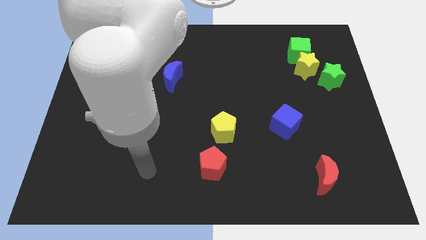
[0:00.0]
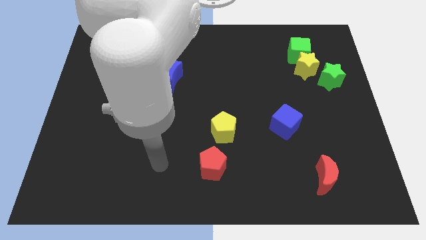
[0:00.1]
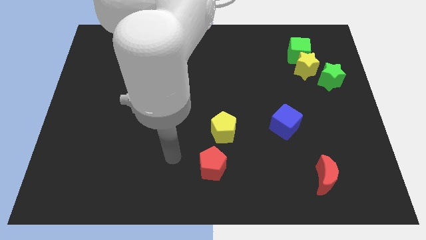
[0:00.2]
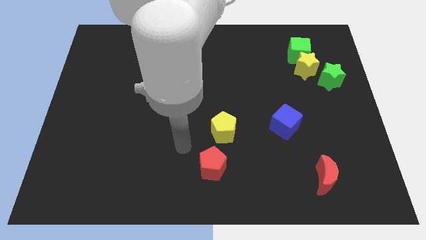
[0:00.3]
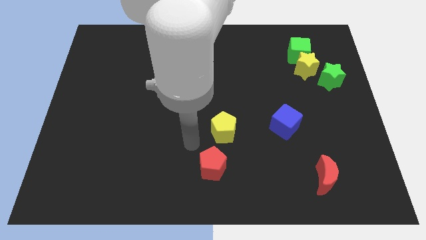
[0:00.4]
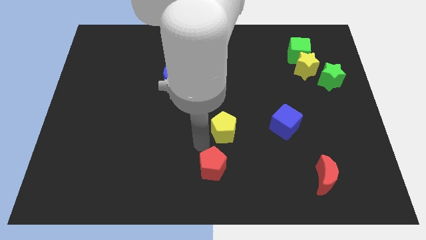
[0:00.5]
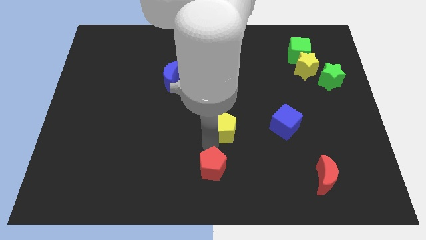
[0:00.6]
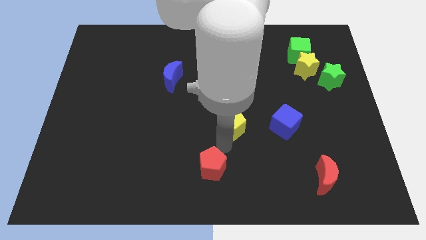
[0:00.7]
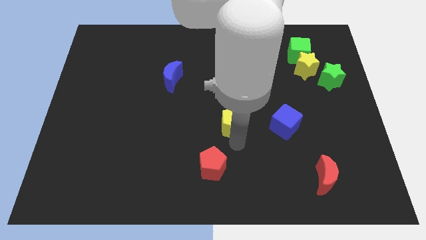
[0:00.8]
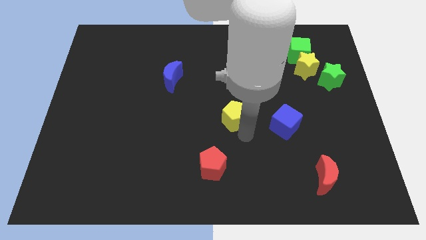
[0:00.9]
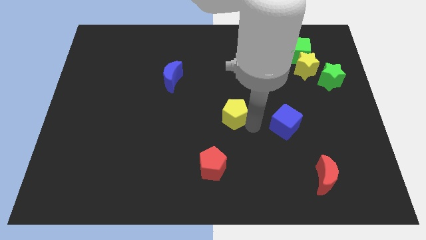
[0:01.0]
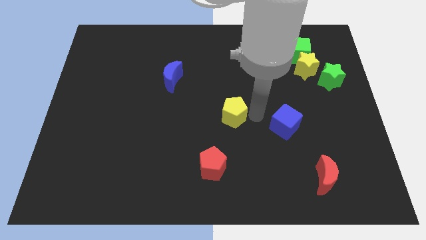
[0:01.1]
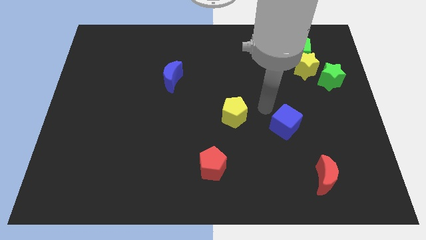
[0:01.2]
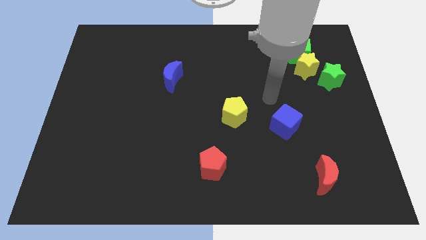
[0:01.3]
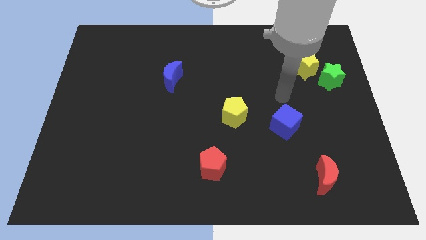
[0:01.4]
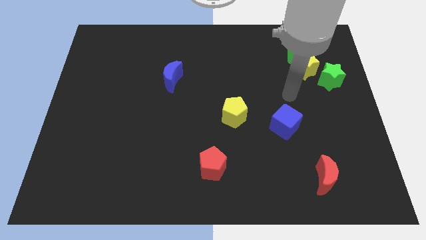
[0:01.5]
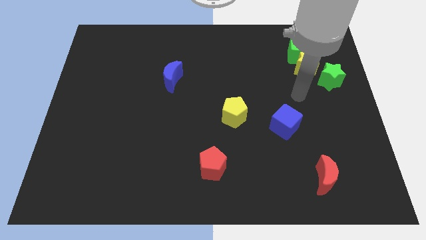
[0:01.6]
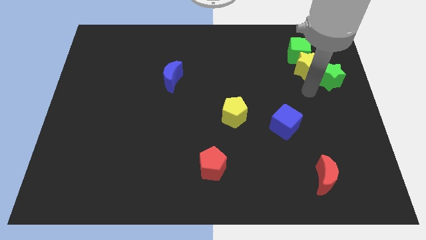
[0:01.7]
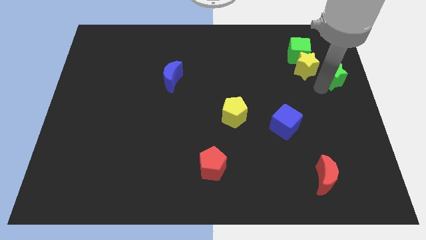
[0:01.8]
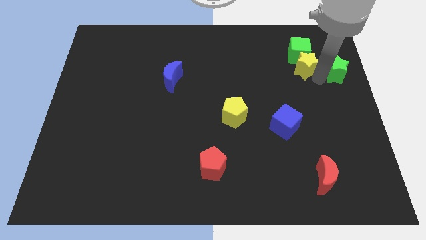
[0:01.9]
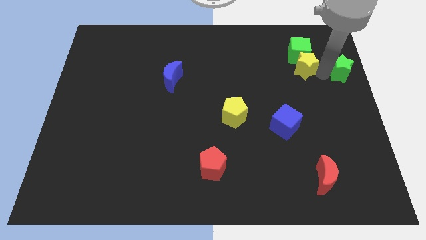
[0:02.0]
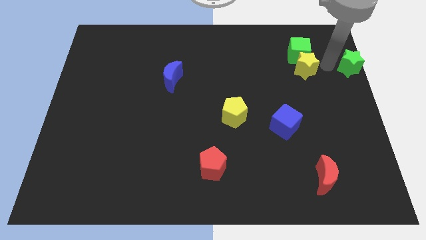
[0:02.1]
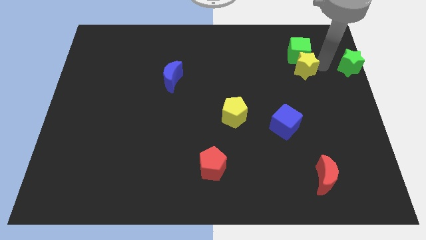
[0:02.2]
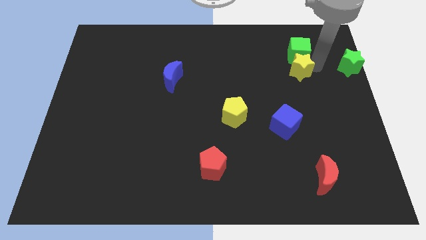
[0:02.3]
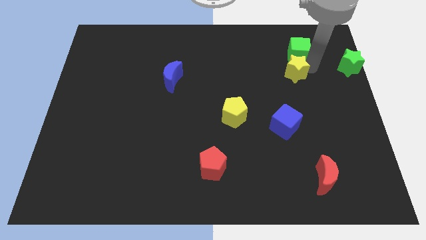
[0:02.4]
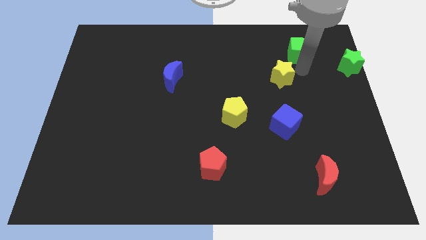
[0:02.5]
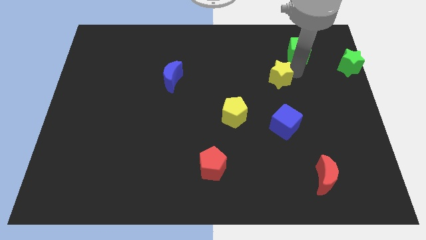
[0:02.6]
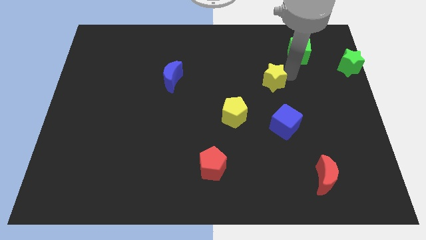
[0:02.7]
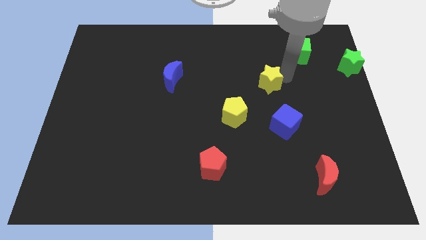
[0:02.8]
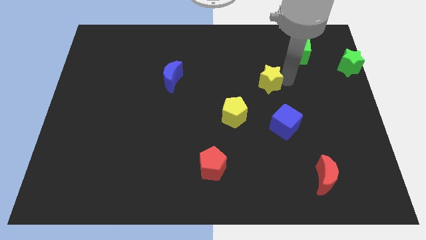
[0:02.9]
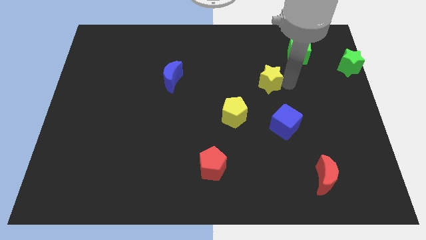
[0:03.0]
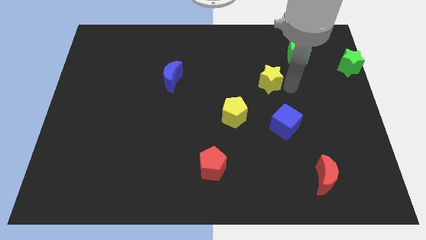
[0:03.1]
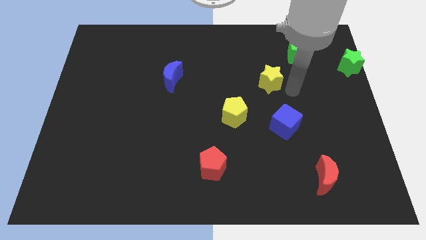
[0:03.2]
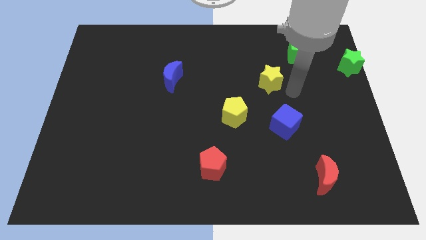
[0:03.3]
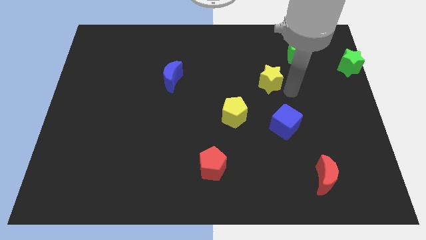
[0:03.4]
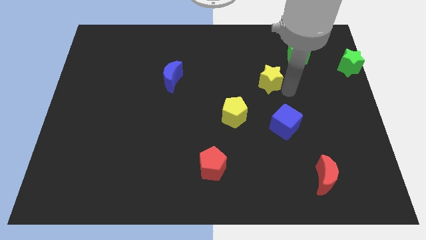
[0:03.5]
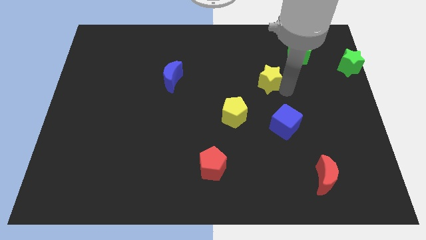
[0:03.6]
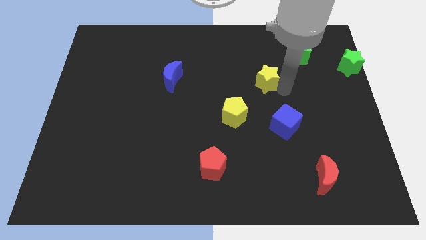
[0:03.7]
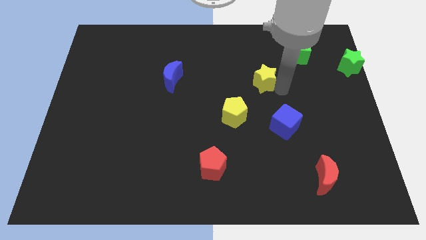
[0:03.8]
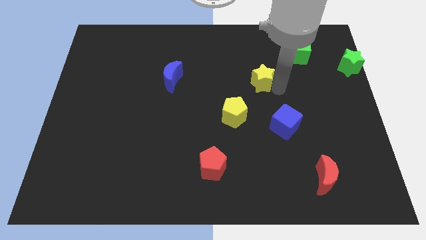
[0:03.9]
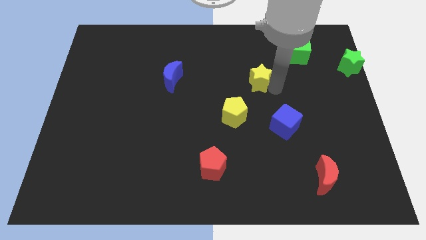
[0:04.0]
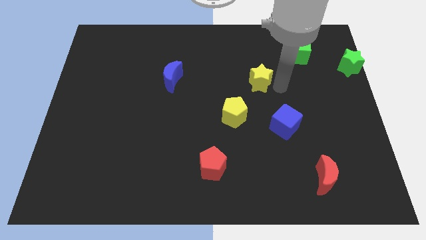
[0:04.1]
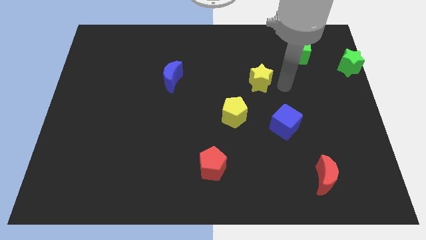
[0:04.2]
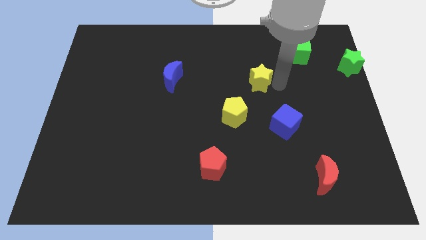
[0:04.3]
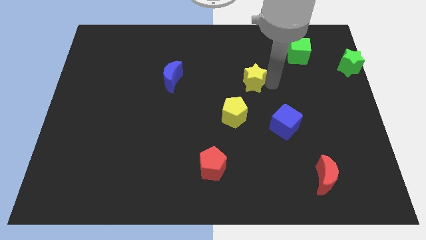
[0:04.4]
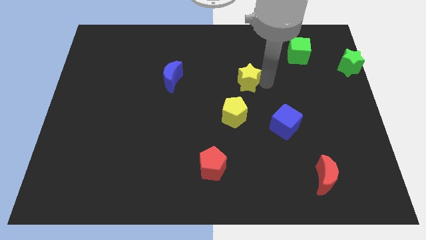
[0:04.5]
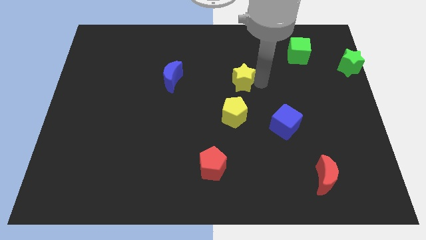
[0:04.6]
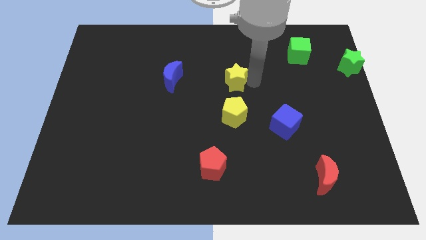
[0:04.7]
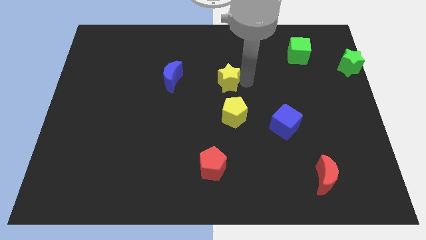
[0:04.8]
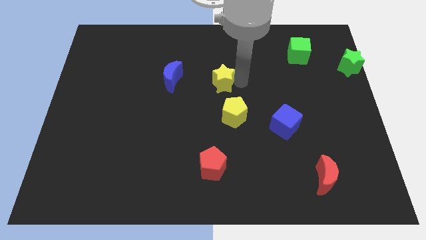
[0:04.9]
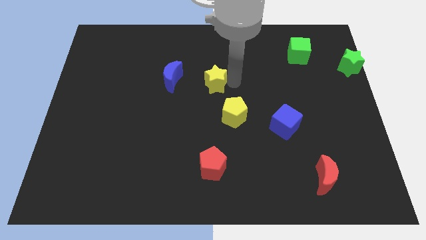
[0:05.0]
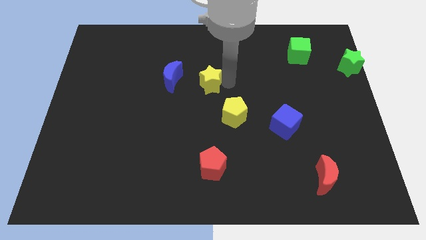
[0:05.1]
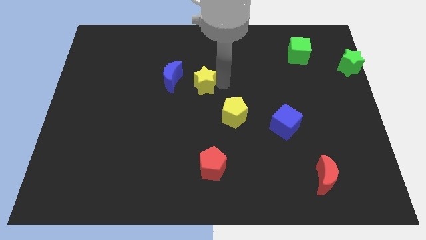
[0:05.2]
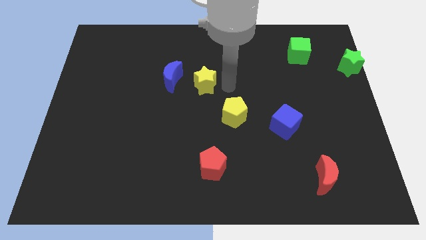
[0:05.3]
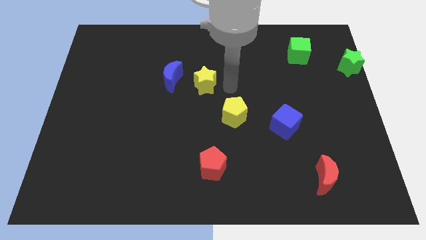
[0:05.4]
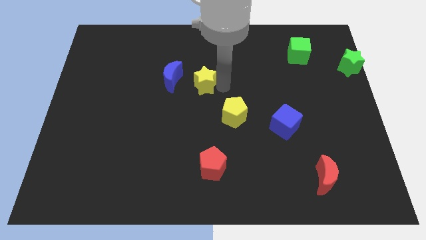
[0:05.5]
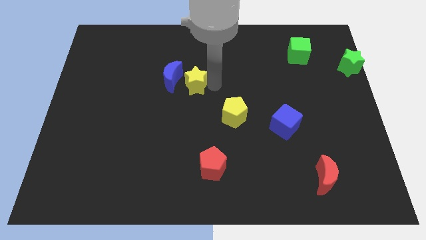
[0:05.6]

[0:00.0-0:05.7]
move the yellow star towards the blue moon

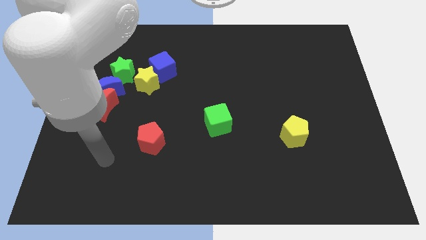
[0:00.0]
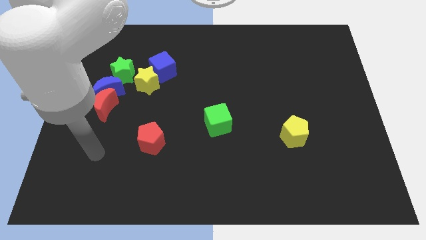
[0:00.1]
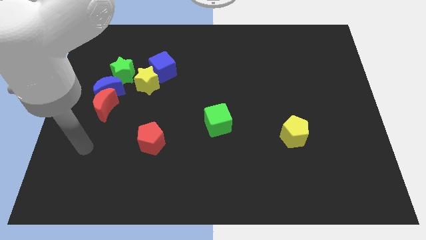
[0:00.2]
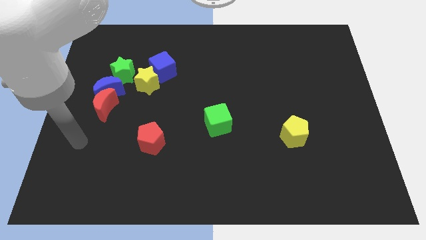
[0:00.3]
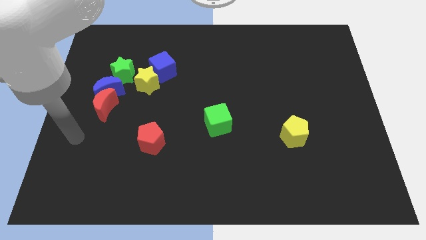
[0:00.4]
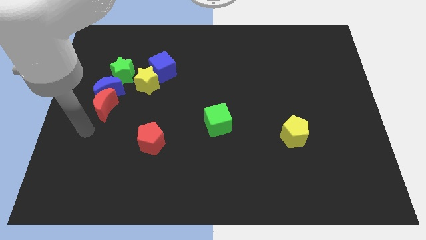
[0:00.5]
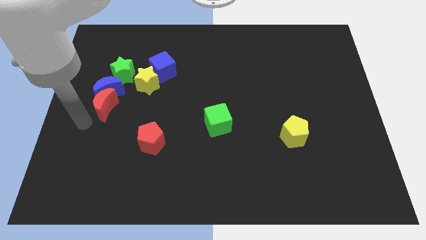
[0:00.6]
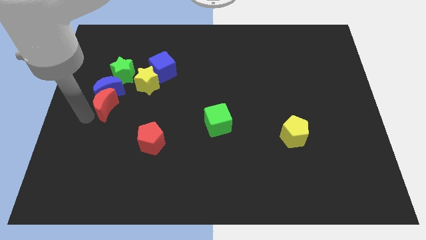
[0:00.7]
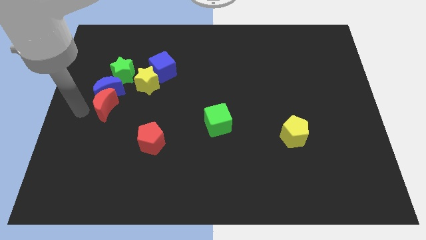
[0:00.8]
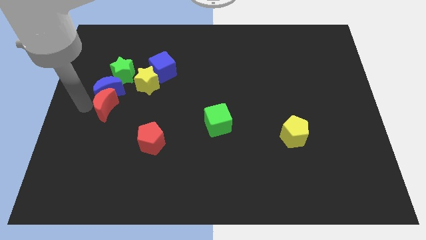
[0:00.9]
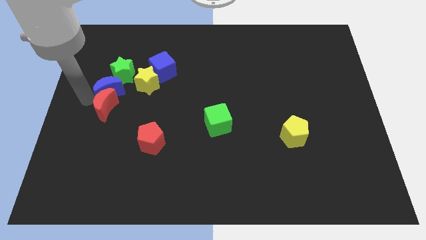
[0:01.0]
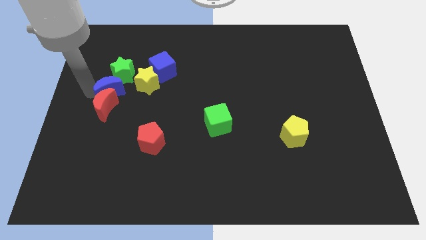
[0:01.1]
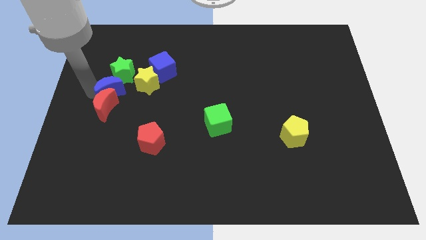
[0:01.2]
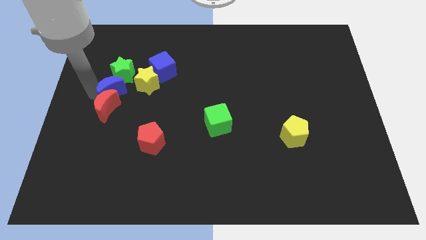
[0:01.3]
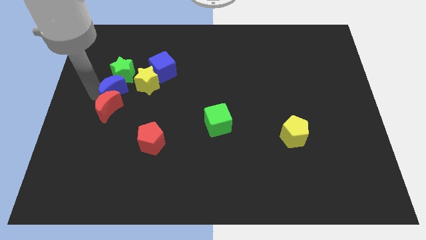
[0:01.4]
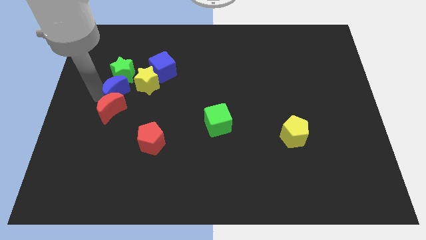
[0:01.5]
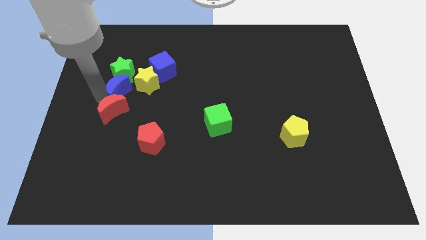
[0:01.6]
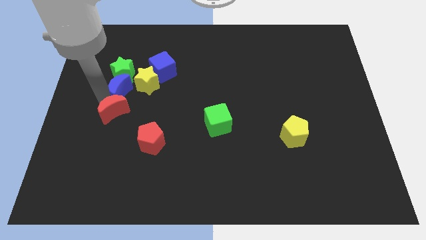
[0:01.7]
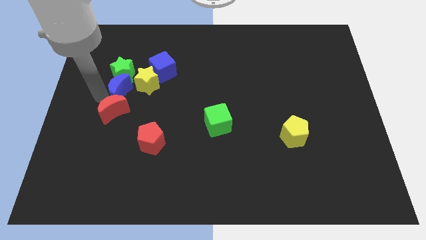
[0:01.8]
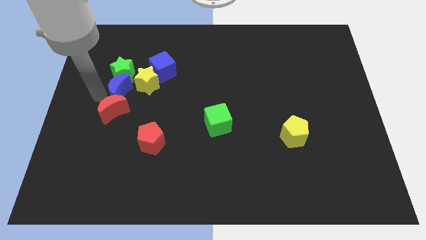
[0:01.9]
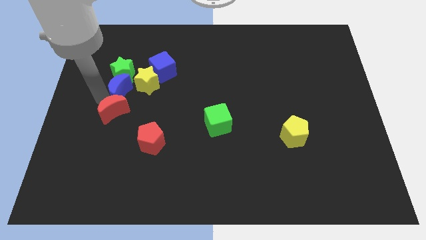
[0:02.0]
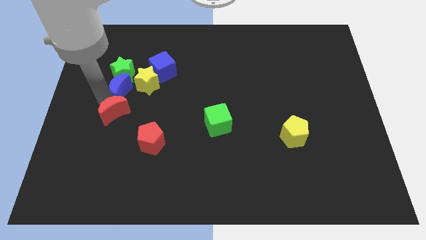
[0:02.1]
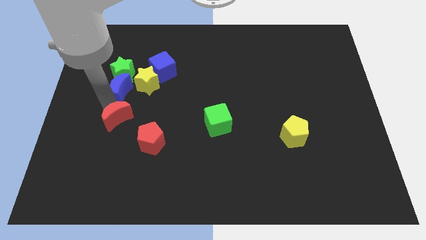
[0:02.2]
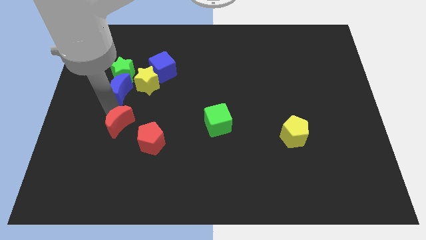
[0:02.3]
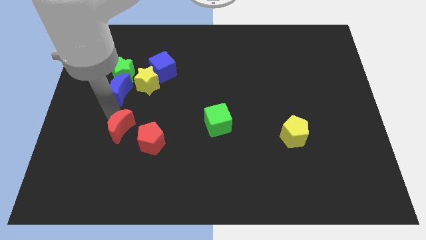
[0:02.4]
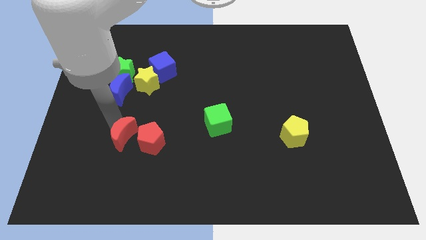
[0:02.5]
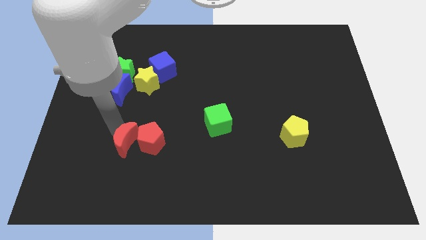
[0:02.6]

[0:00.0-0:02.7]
move the red moon to the red pentagon
